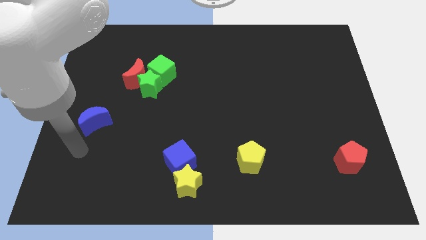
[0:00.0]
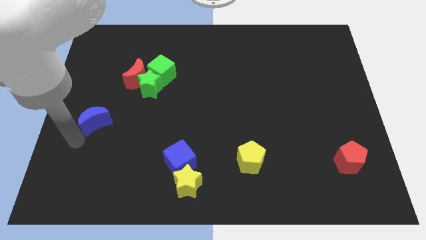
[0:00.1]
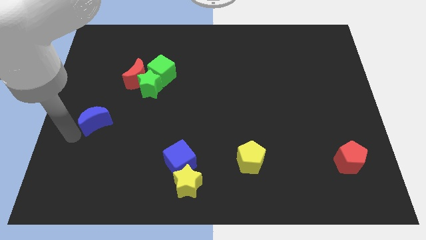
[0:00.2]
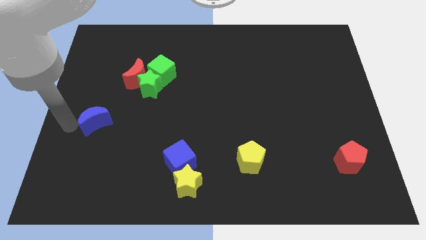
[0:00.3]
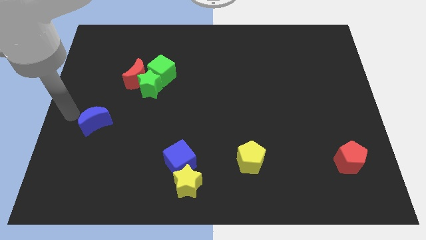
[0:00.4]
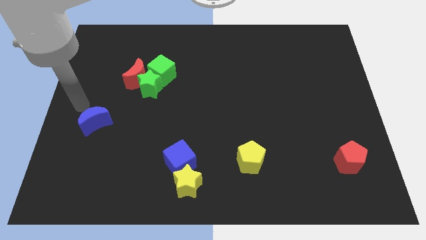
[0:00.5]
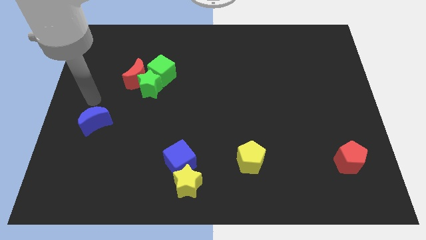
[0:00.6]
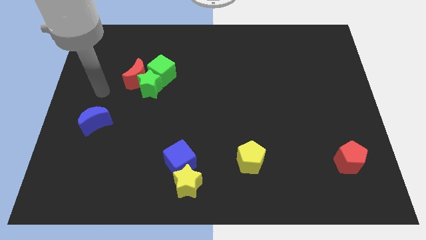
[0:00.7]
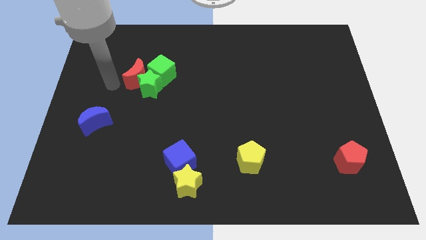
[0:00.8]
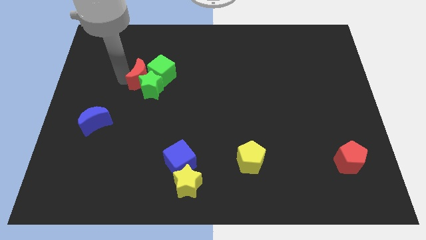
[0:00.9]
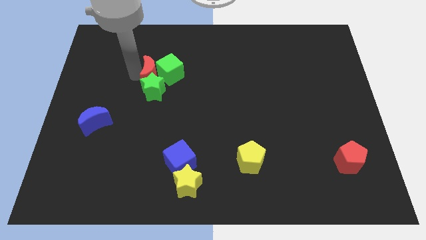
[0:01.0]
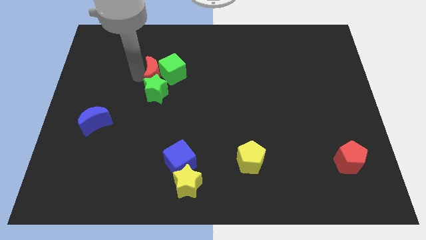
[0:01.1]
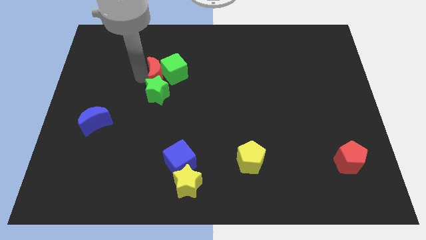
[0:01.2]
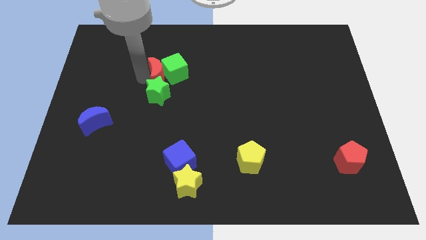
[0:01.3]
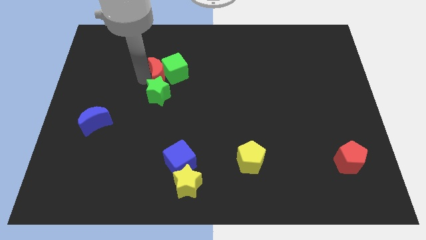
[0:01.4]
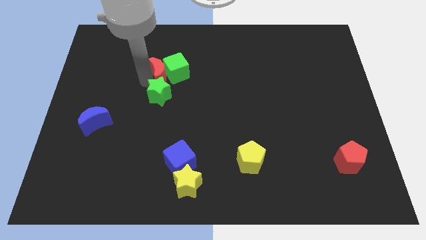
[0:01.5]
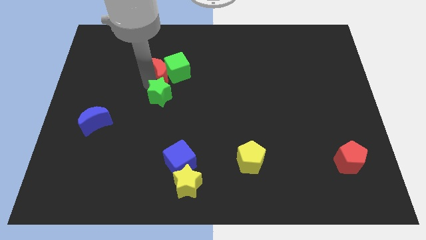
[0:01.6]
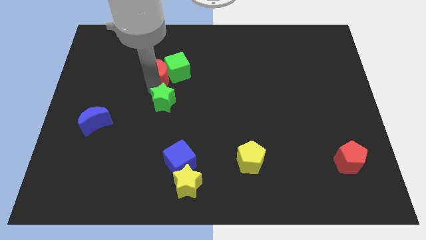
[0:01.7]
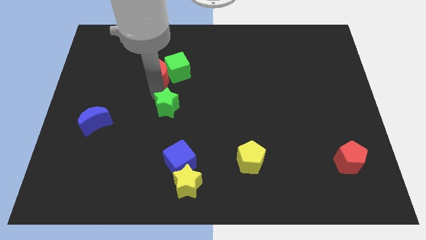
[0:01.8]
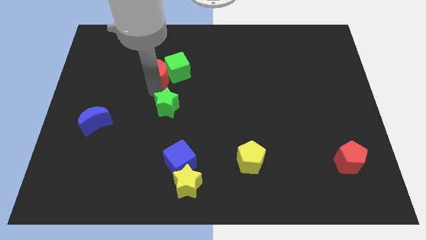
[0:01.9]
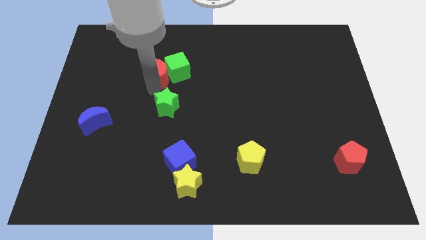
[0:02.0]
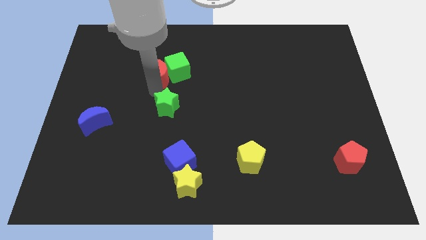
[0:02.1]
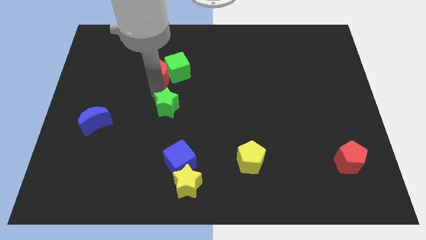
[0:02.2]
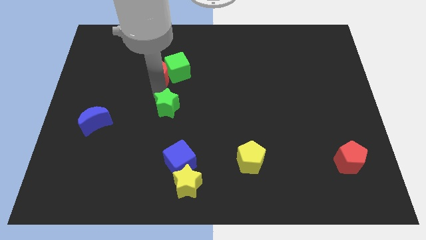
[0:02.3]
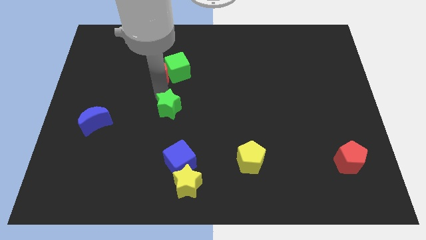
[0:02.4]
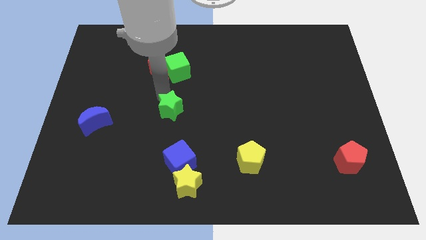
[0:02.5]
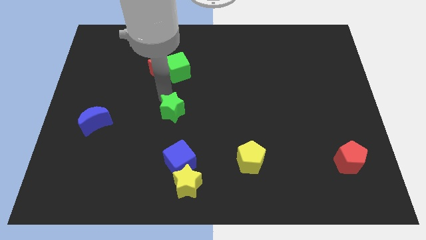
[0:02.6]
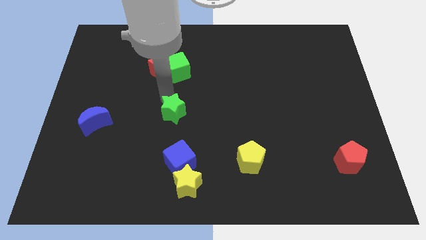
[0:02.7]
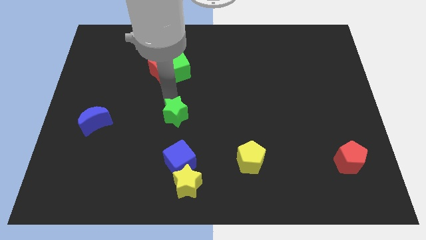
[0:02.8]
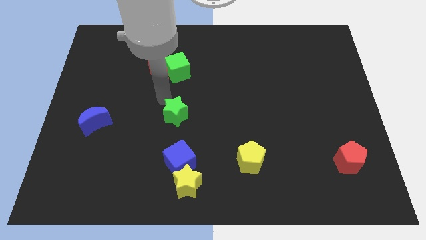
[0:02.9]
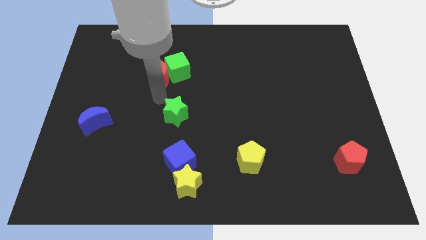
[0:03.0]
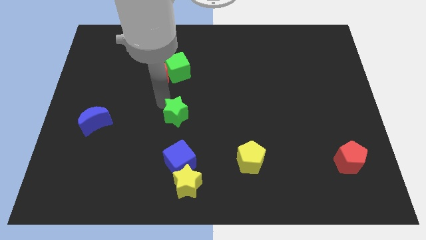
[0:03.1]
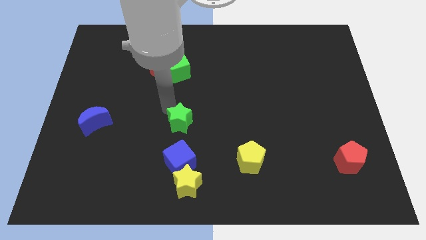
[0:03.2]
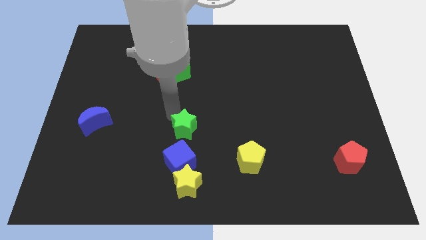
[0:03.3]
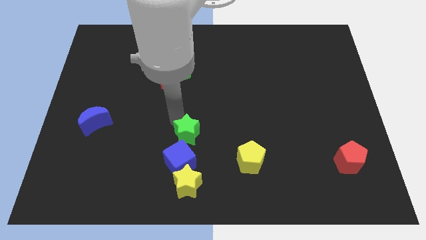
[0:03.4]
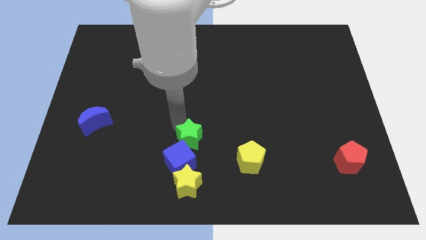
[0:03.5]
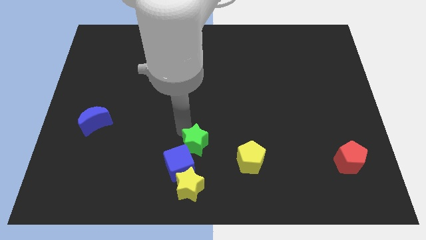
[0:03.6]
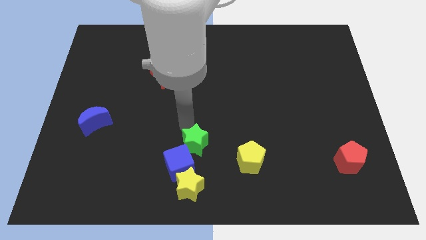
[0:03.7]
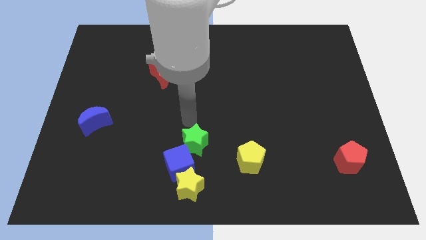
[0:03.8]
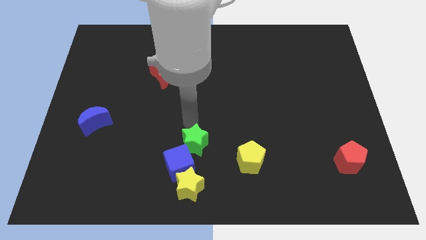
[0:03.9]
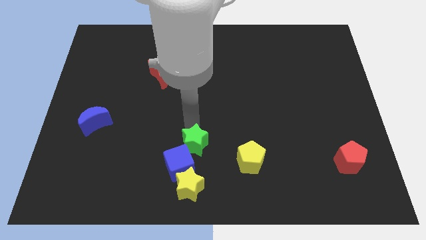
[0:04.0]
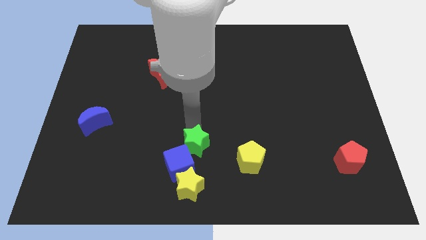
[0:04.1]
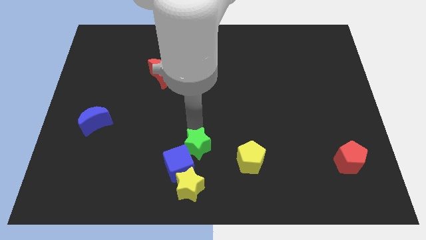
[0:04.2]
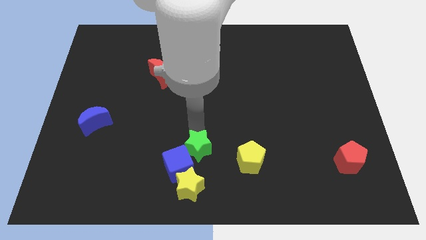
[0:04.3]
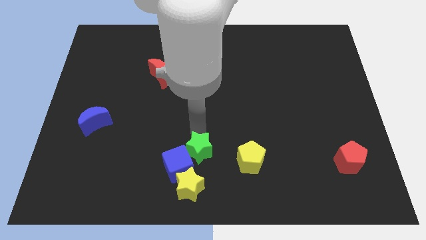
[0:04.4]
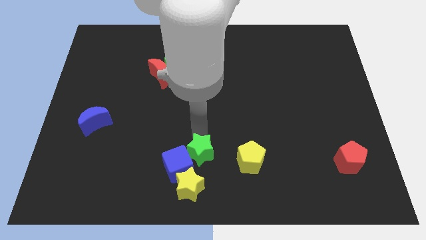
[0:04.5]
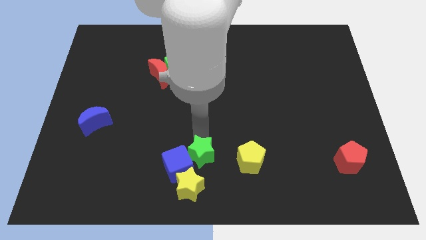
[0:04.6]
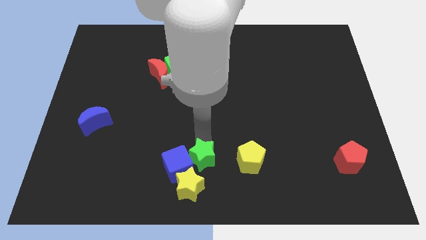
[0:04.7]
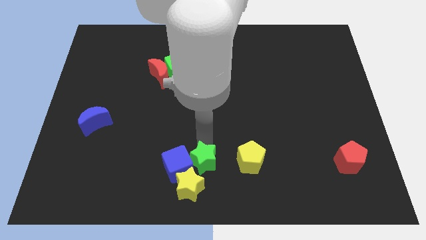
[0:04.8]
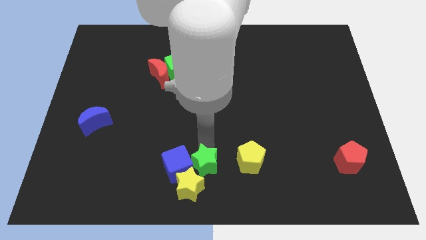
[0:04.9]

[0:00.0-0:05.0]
slide the green star next to the yellow star

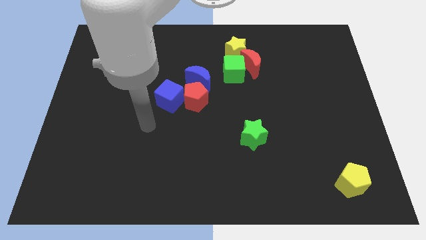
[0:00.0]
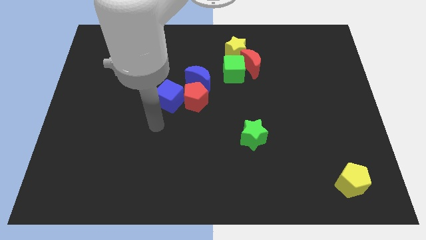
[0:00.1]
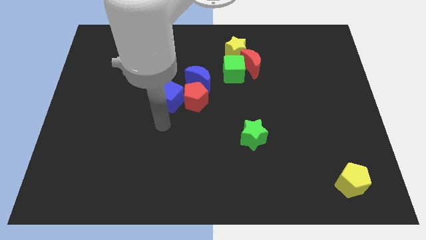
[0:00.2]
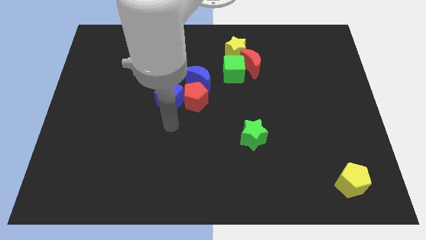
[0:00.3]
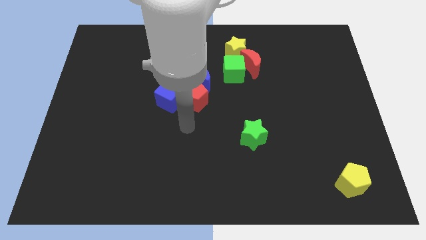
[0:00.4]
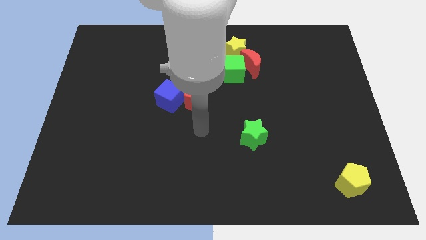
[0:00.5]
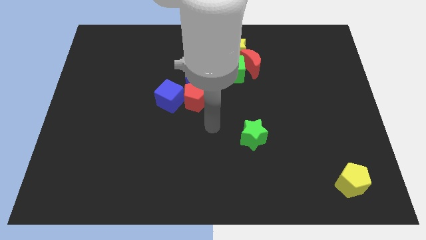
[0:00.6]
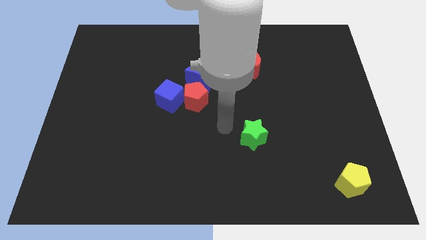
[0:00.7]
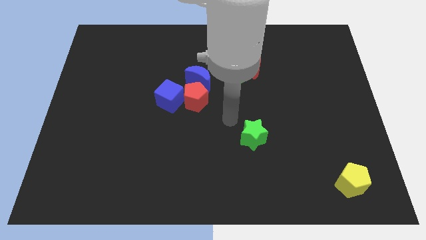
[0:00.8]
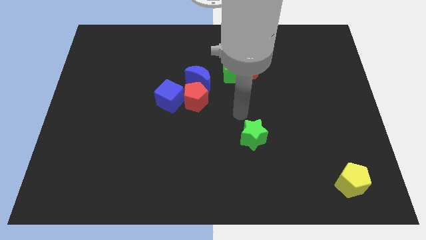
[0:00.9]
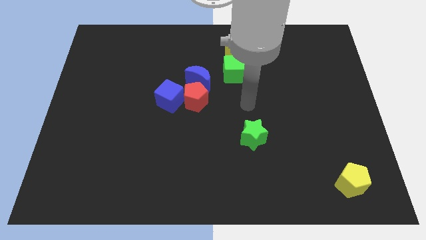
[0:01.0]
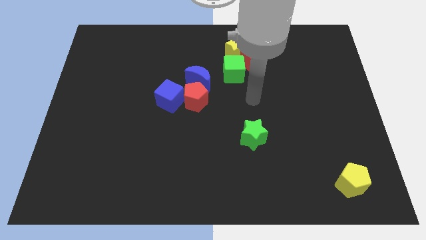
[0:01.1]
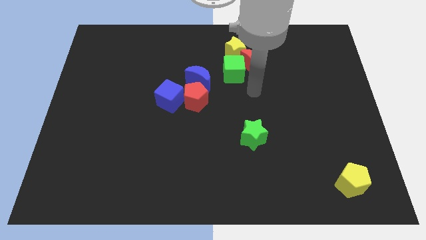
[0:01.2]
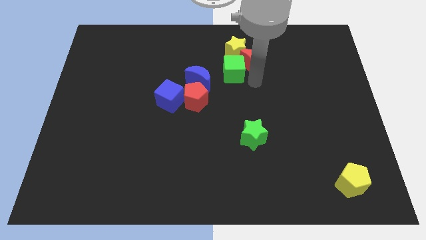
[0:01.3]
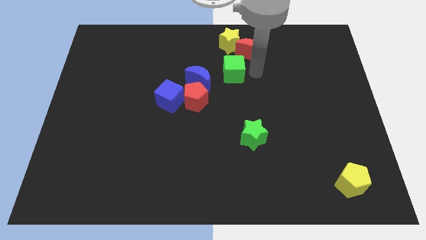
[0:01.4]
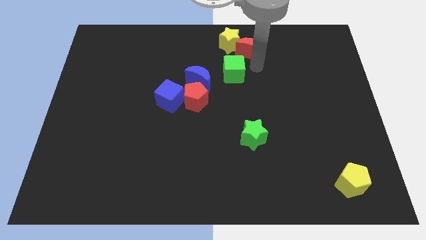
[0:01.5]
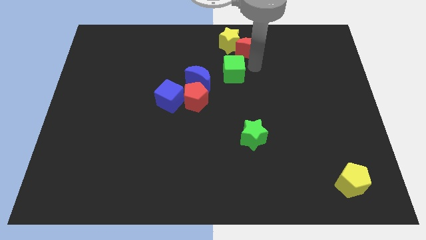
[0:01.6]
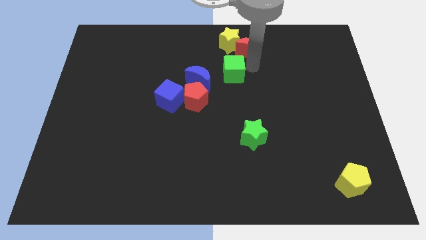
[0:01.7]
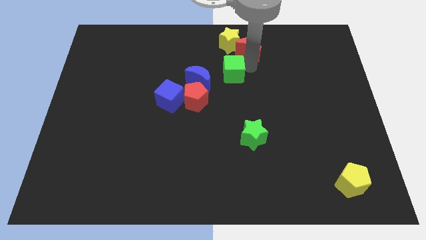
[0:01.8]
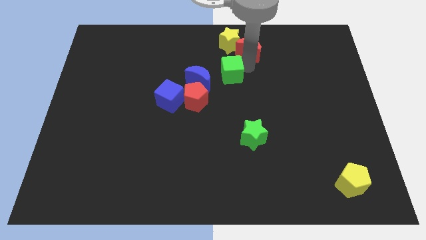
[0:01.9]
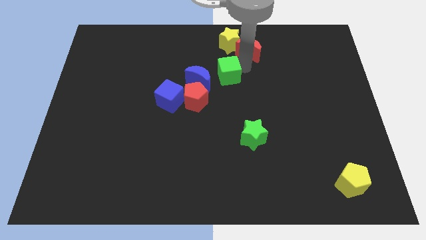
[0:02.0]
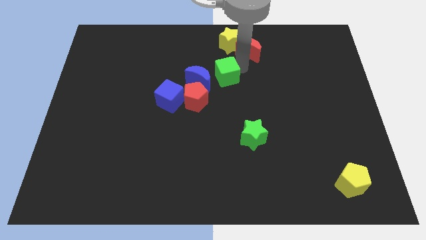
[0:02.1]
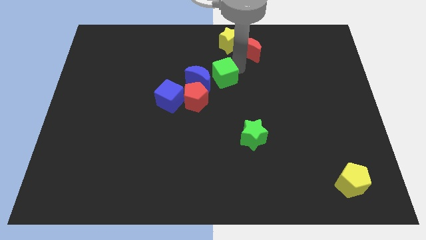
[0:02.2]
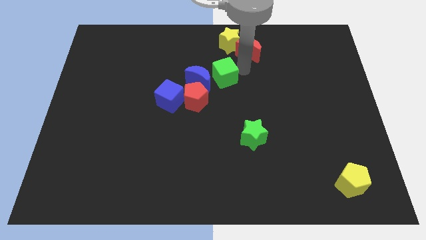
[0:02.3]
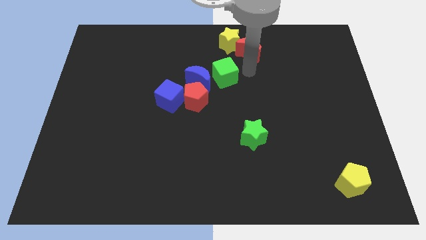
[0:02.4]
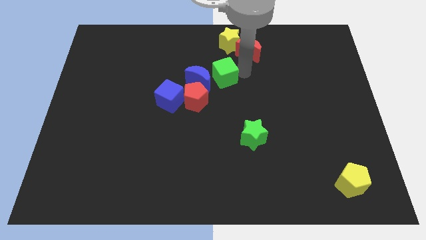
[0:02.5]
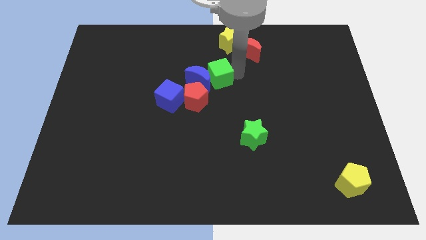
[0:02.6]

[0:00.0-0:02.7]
push the green cube towards the blue moon
